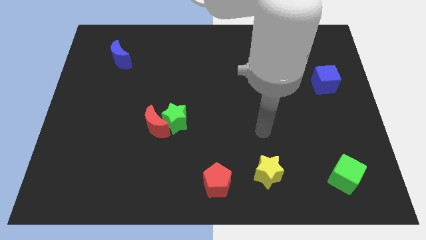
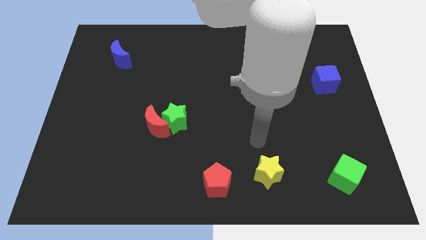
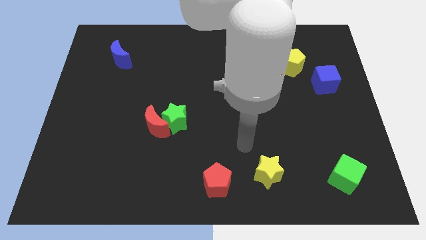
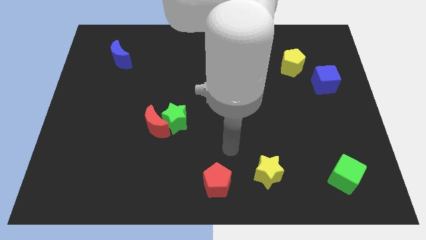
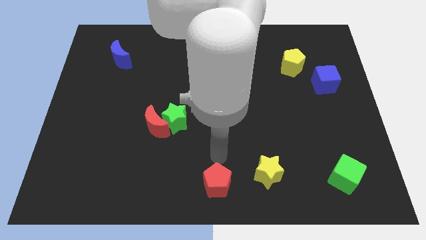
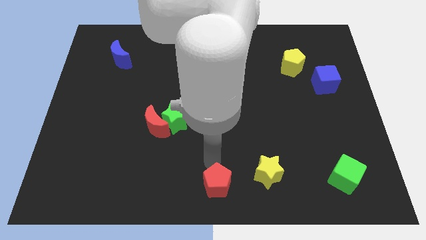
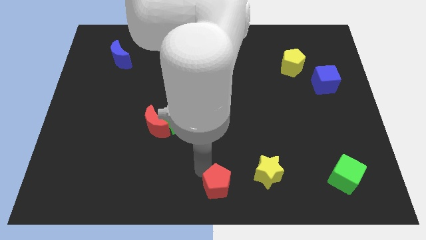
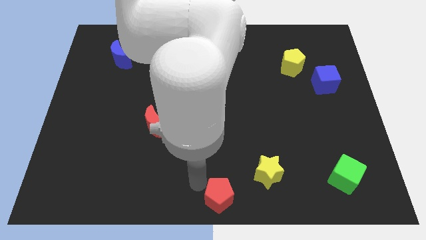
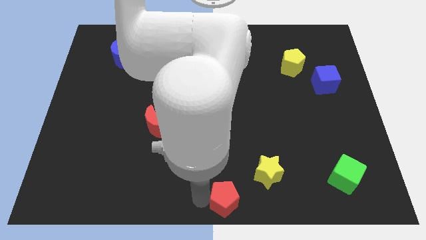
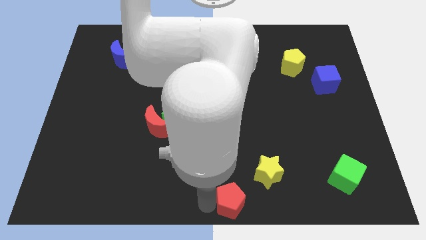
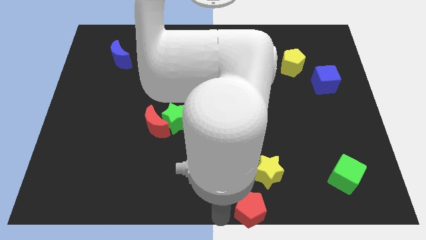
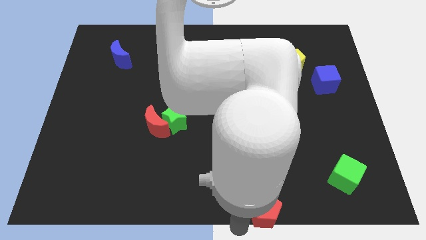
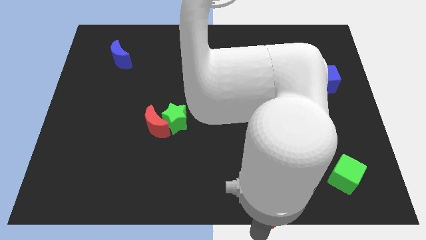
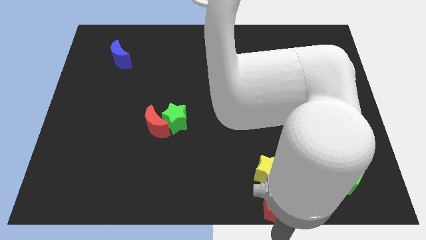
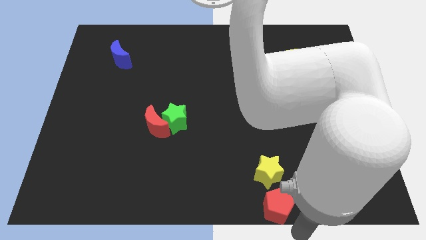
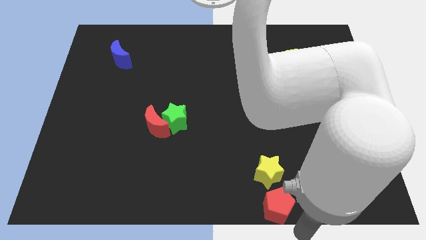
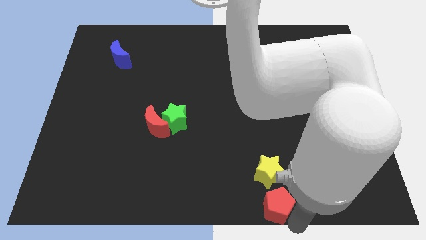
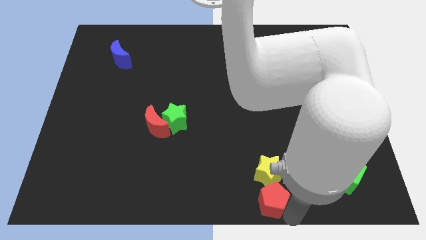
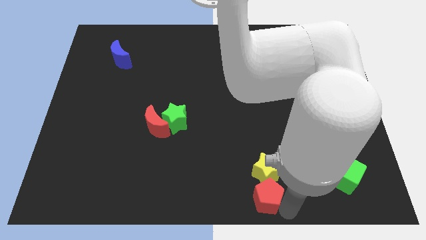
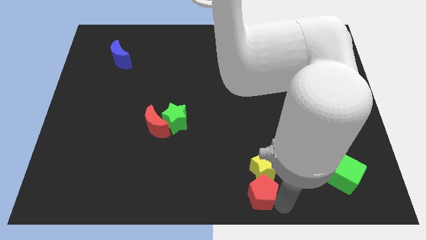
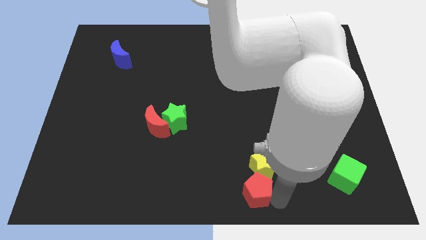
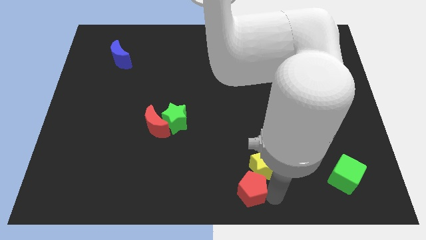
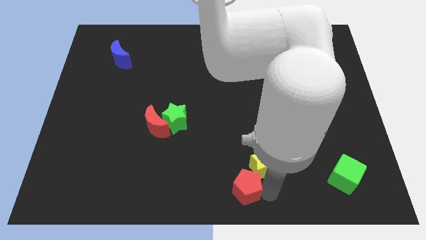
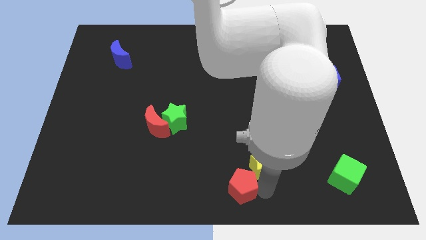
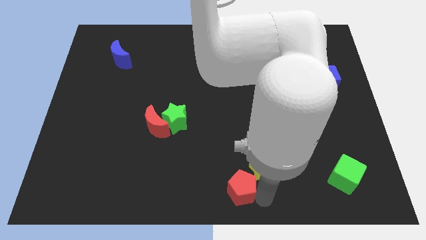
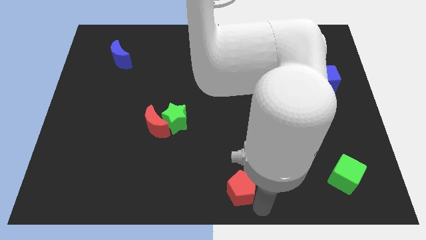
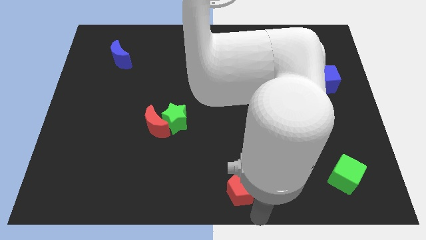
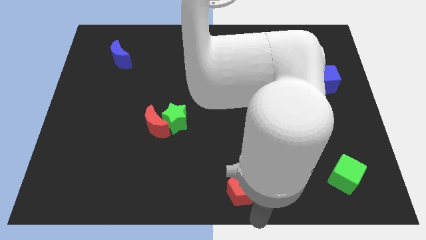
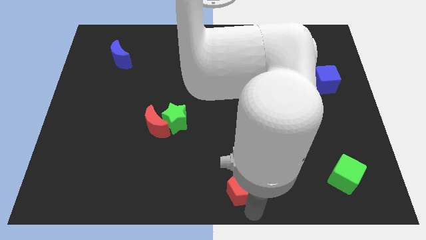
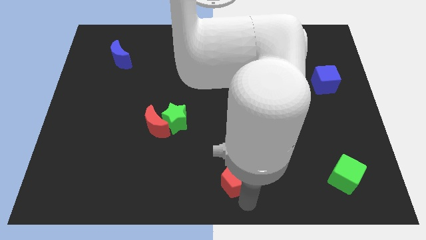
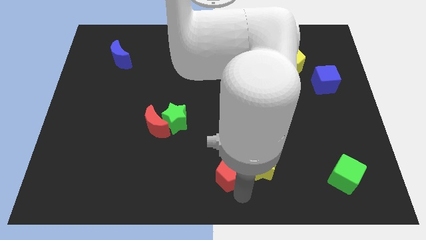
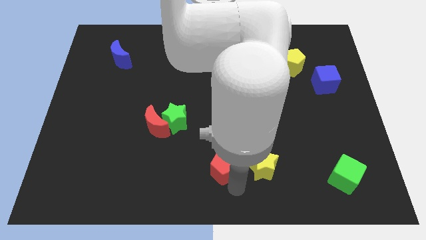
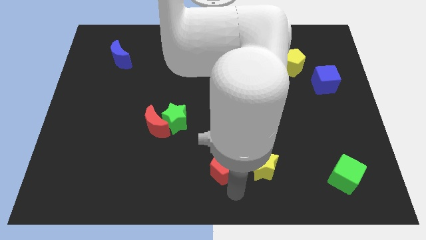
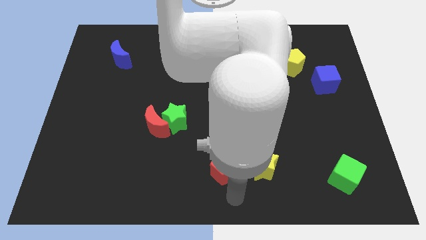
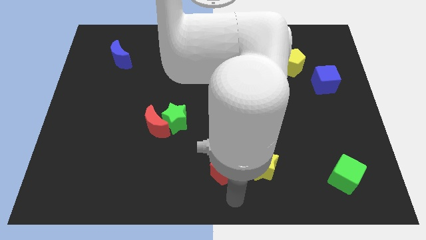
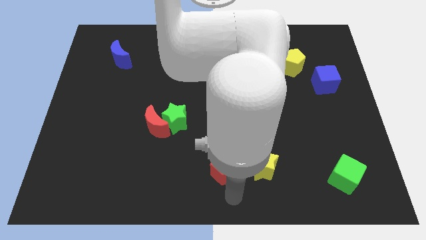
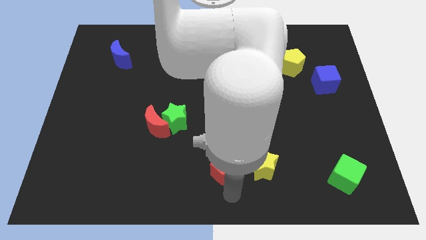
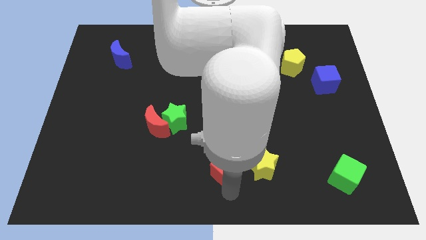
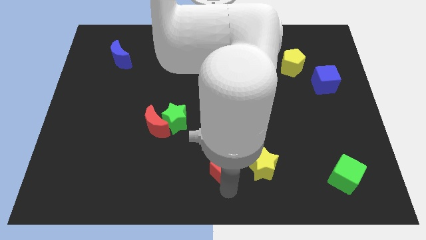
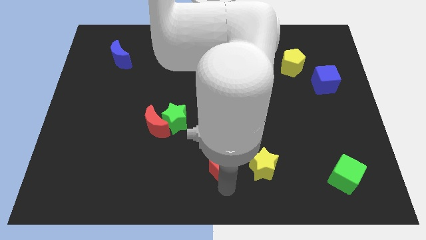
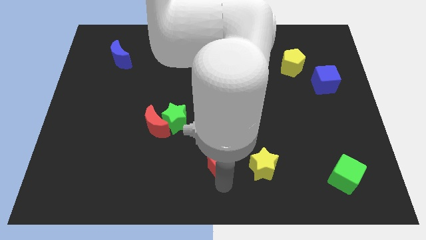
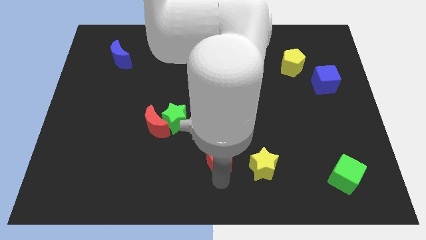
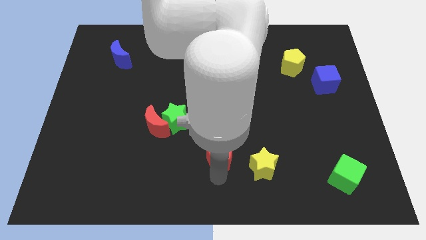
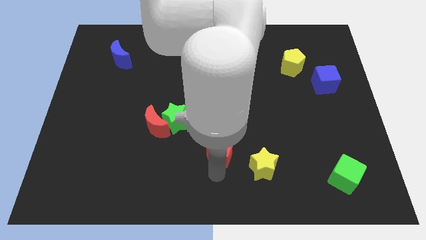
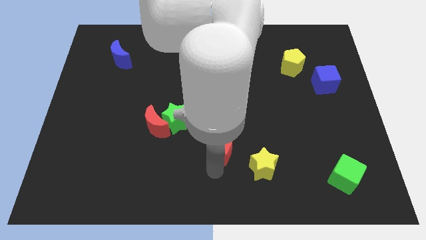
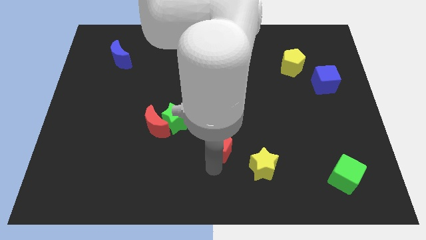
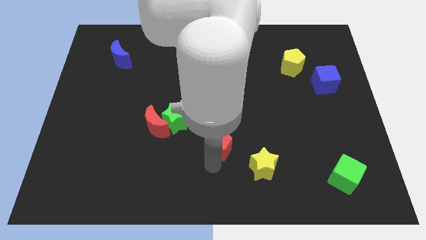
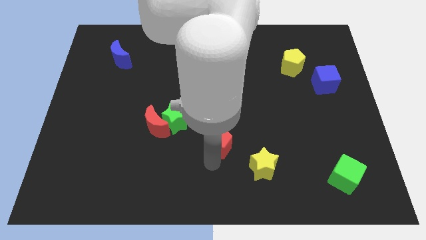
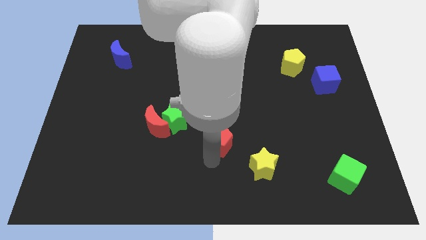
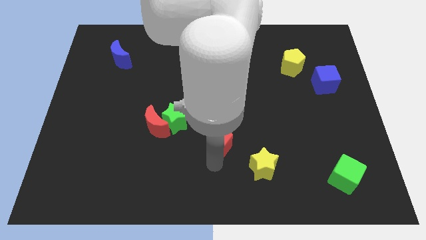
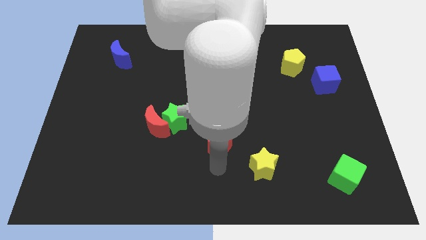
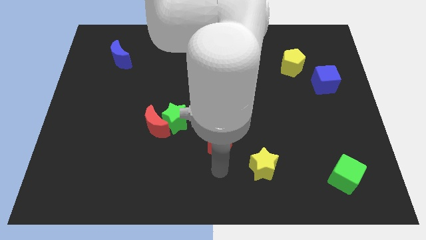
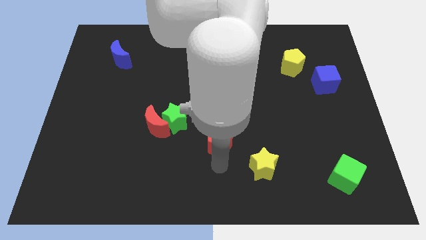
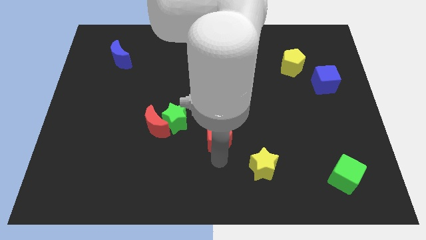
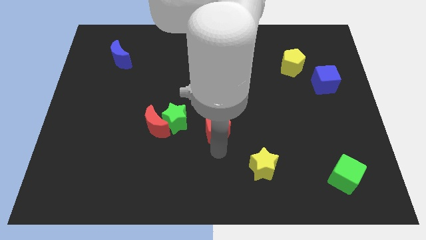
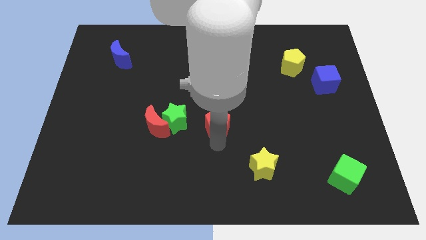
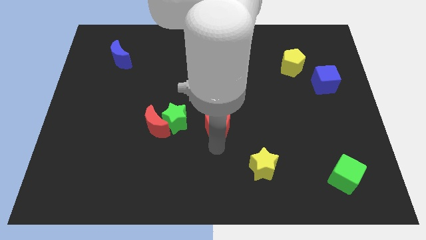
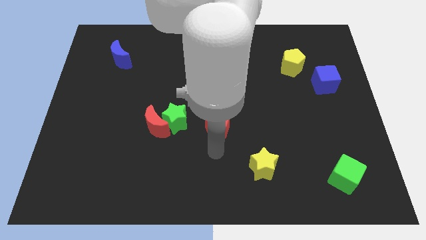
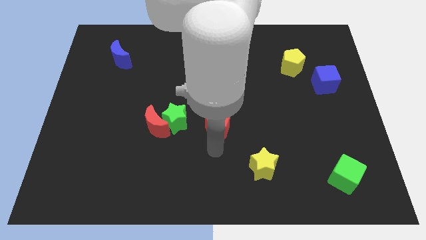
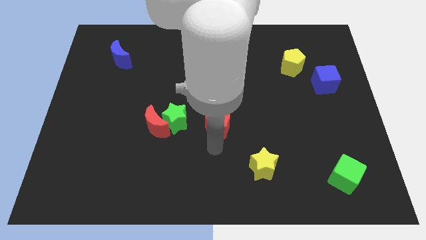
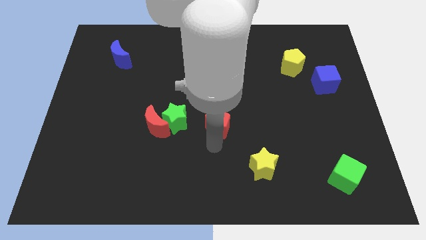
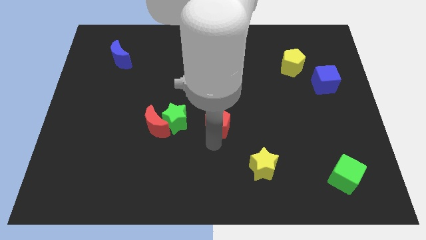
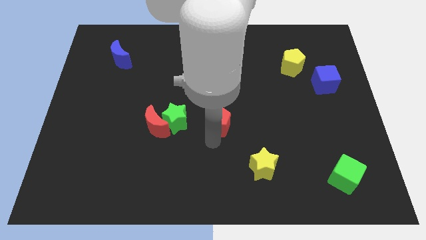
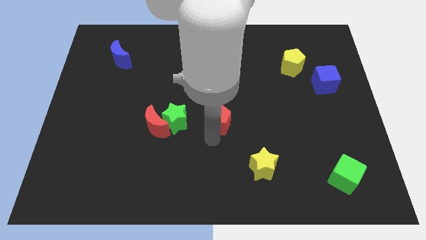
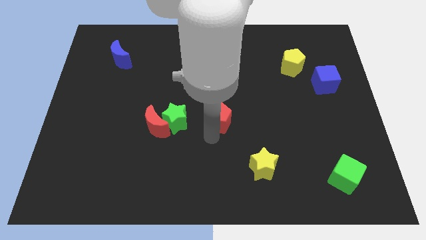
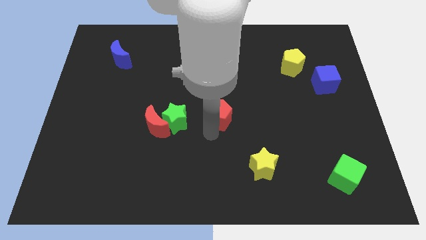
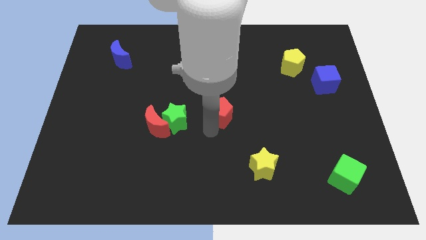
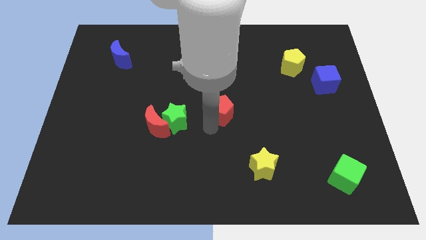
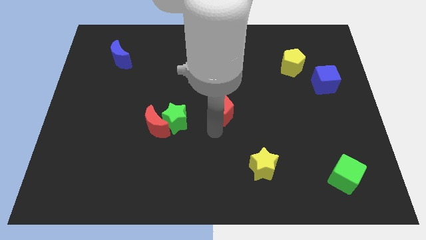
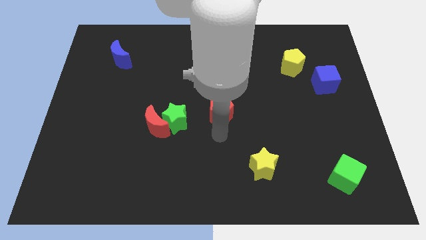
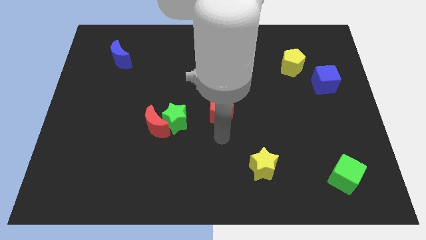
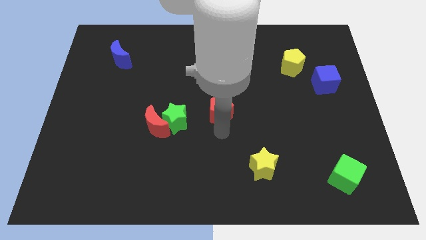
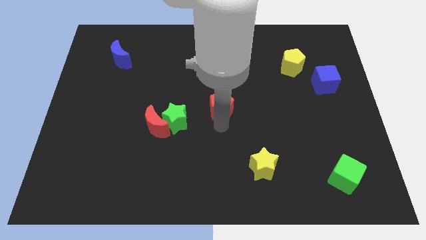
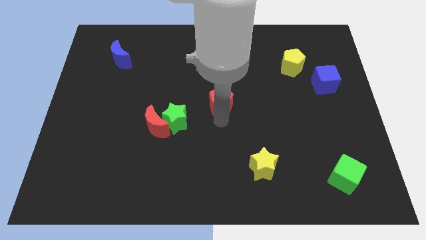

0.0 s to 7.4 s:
slide the red pentagon up

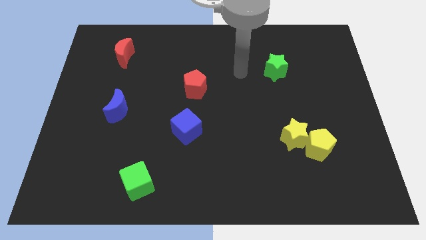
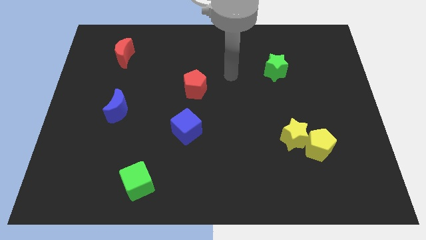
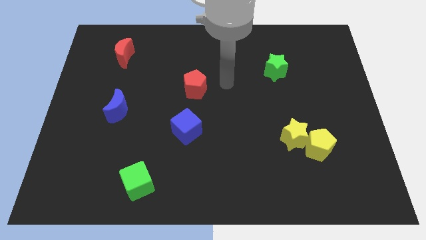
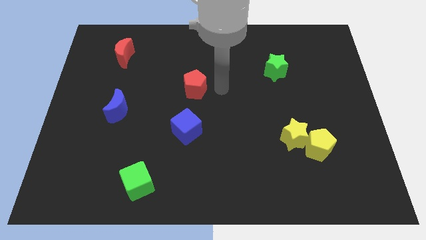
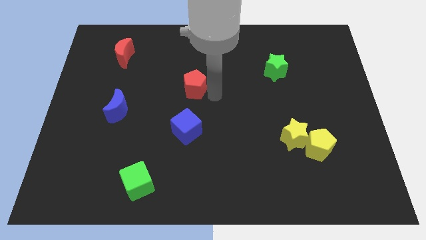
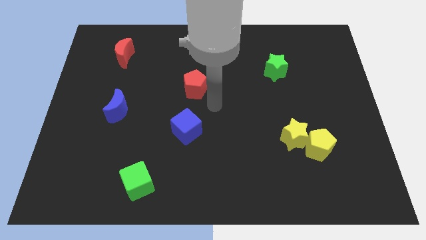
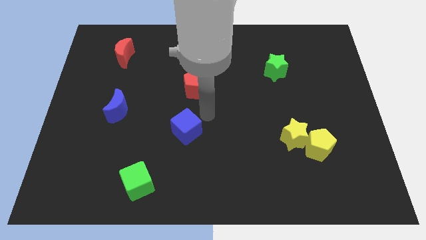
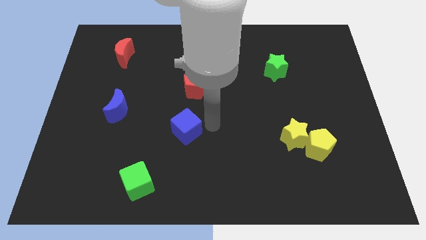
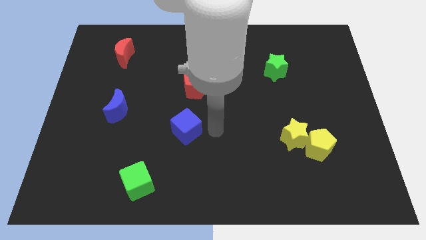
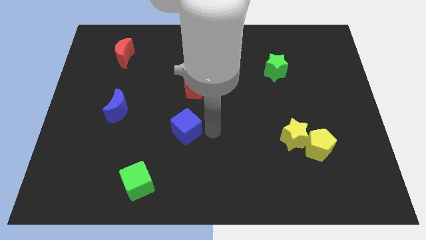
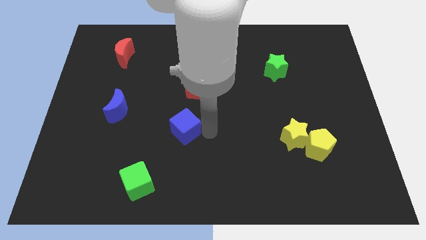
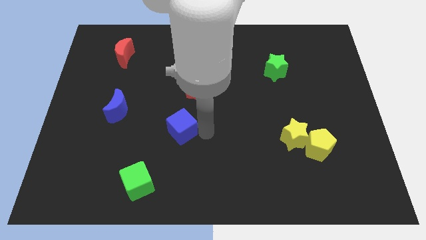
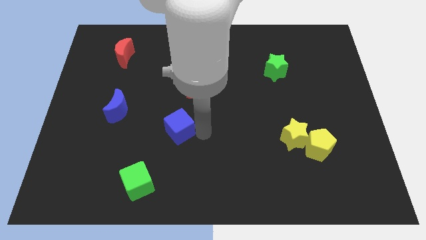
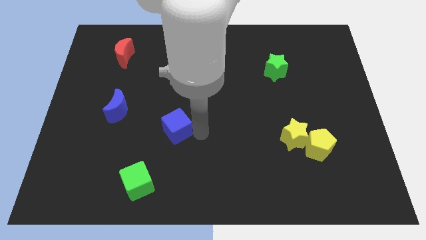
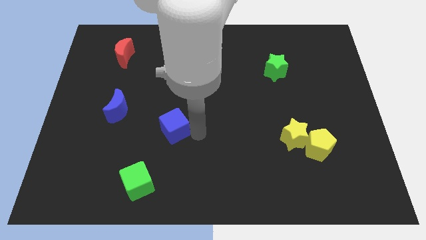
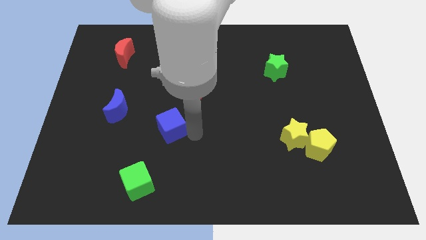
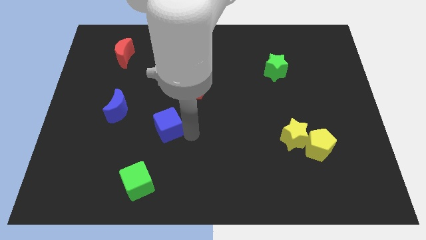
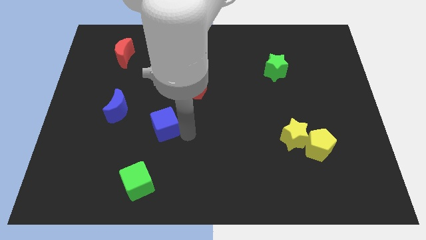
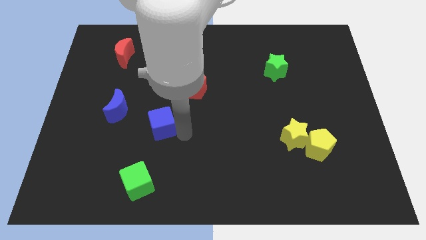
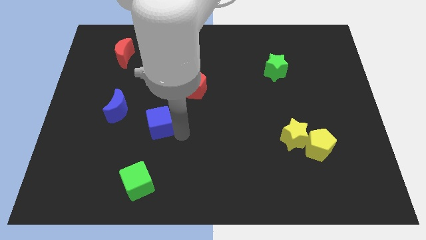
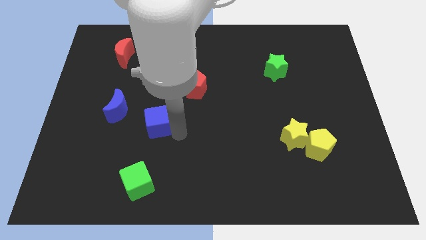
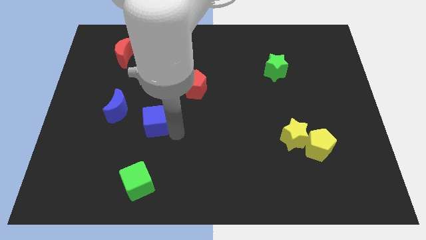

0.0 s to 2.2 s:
push the blue cube left somewhat
